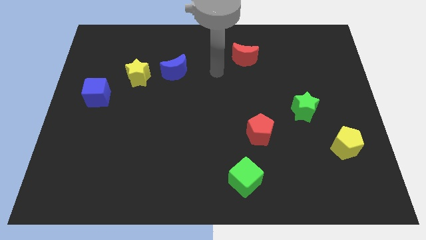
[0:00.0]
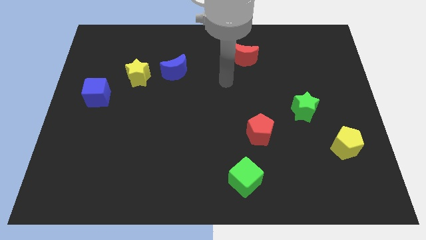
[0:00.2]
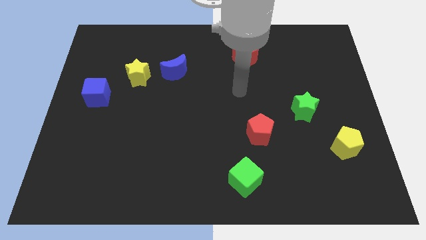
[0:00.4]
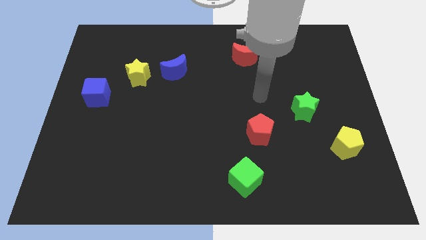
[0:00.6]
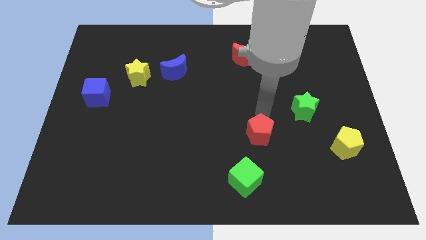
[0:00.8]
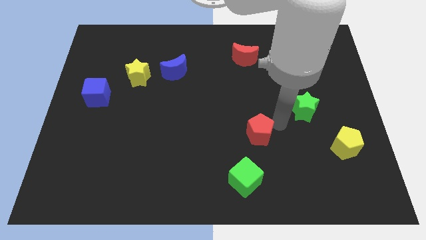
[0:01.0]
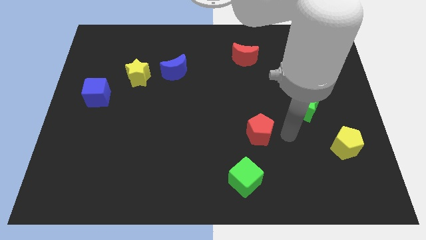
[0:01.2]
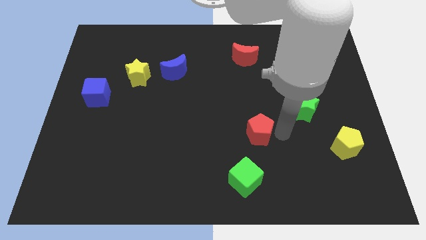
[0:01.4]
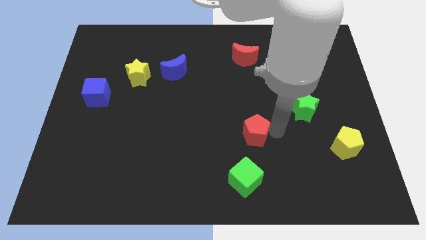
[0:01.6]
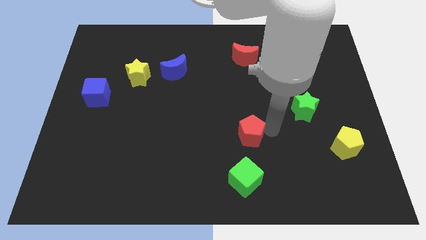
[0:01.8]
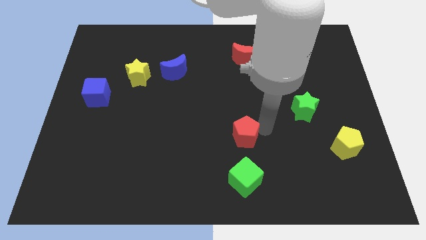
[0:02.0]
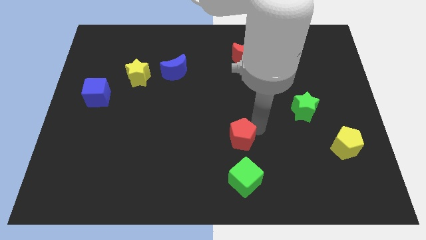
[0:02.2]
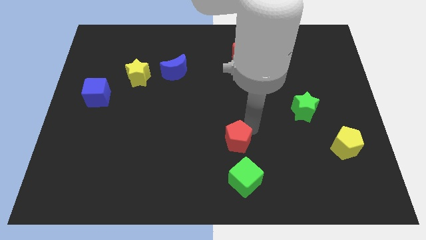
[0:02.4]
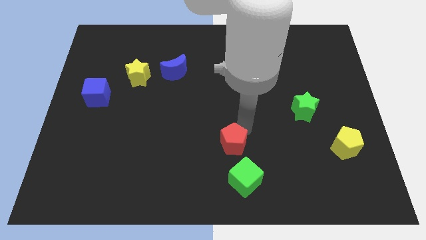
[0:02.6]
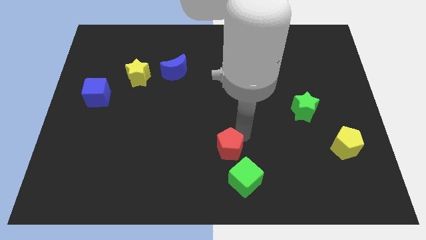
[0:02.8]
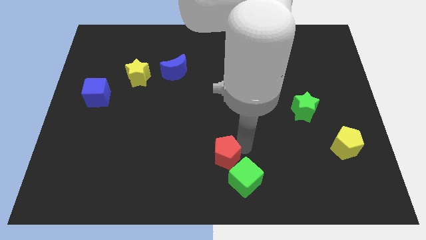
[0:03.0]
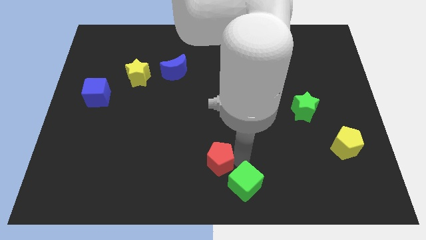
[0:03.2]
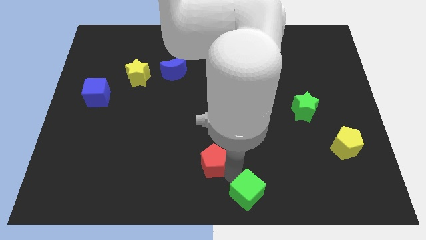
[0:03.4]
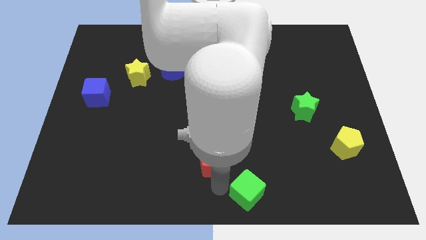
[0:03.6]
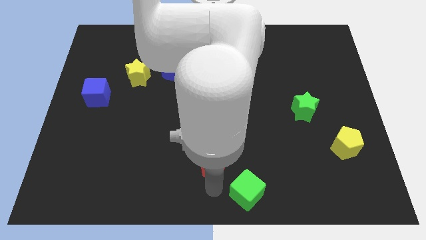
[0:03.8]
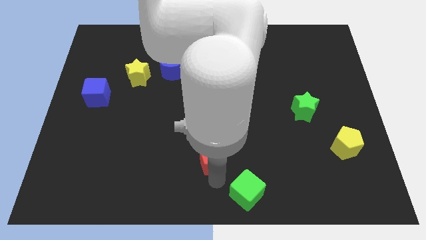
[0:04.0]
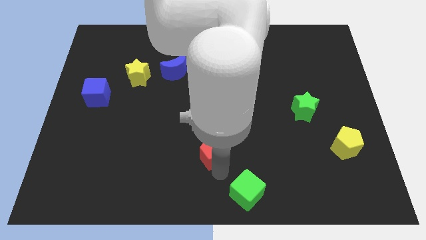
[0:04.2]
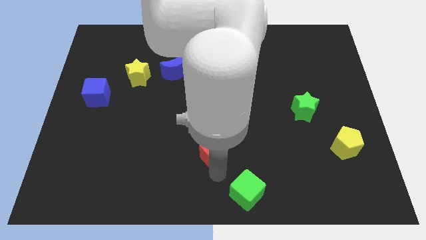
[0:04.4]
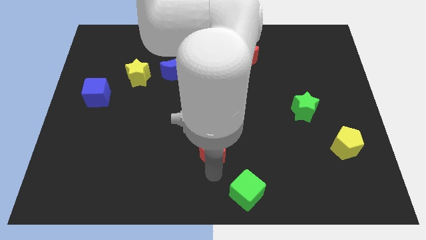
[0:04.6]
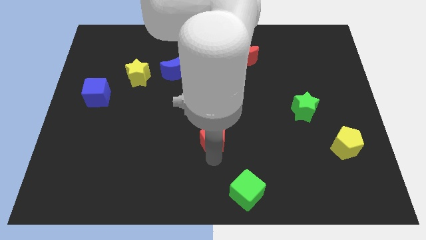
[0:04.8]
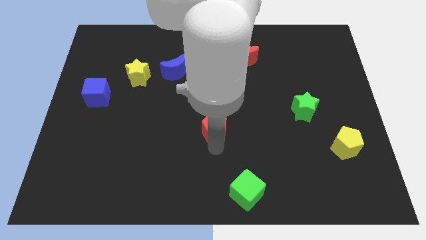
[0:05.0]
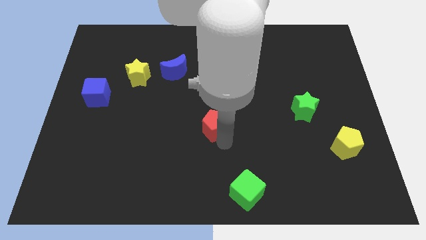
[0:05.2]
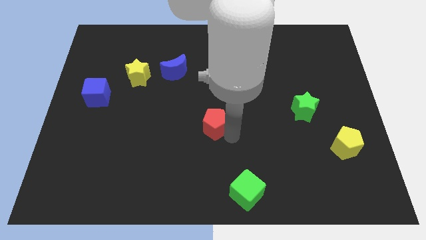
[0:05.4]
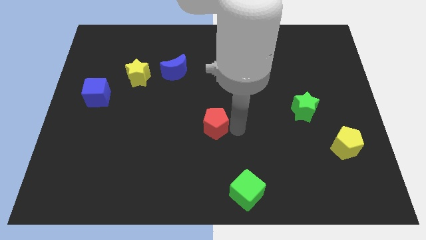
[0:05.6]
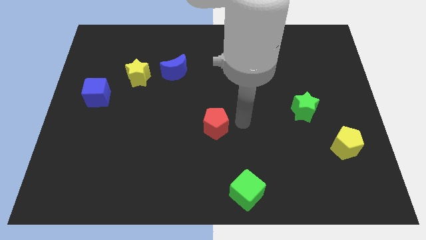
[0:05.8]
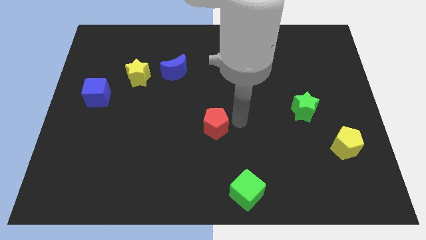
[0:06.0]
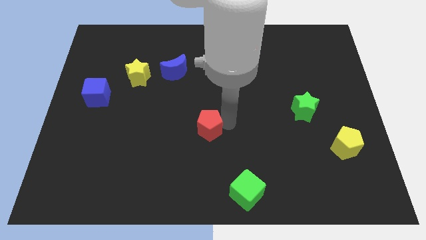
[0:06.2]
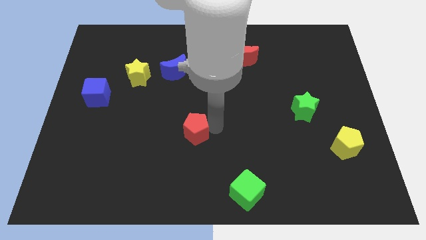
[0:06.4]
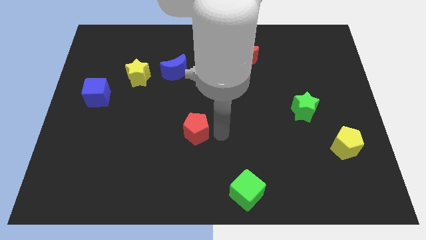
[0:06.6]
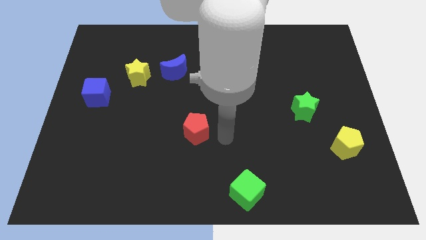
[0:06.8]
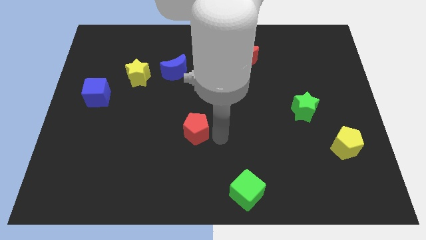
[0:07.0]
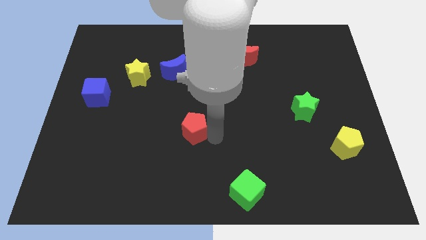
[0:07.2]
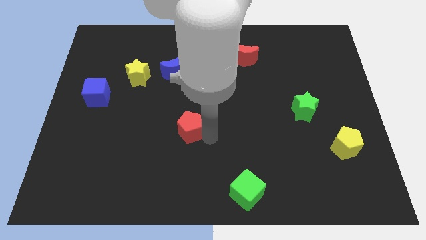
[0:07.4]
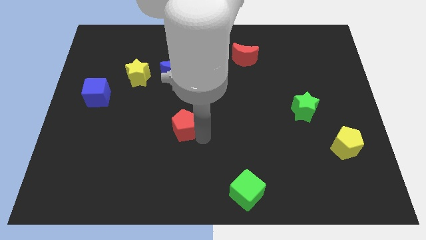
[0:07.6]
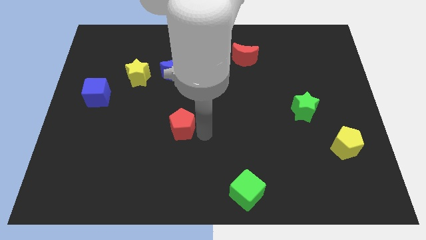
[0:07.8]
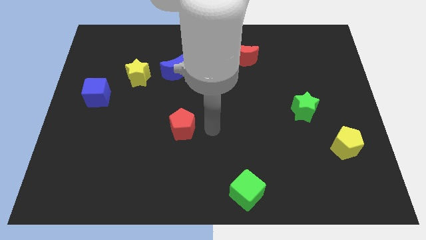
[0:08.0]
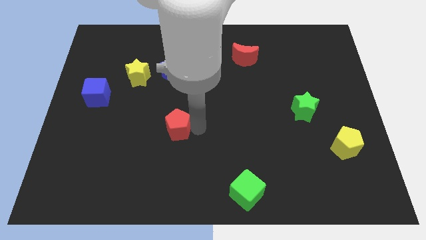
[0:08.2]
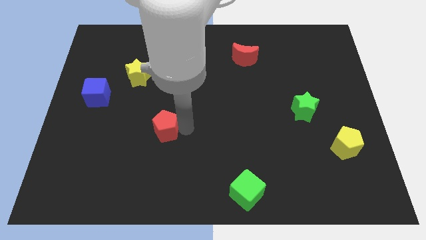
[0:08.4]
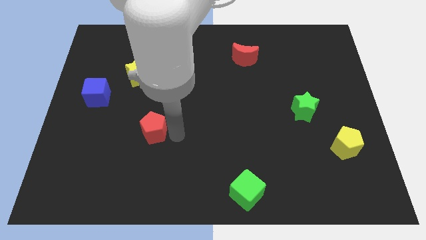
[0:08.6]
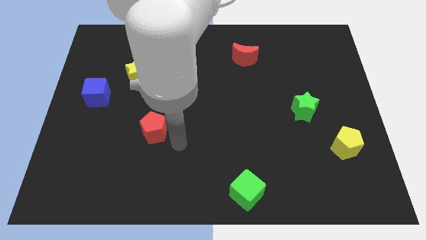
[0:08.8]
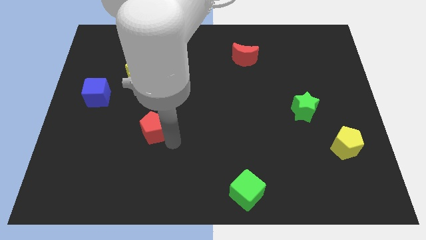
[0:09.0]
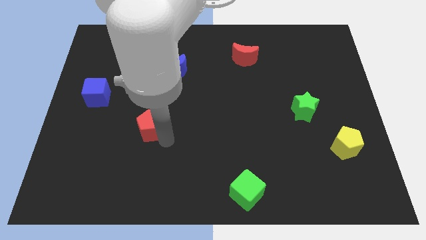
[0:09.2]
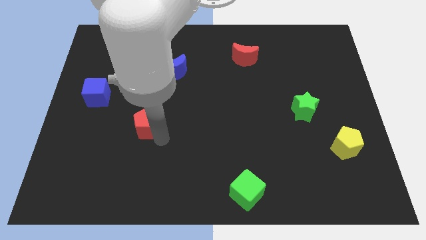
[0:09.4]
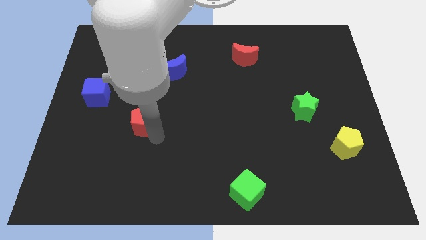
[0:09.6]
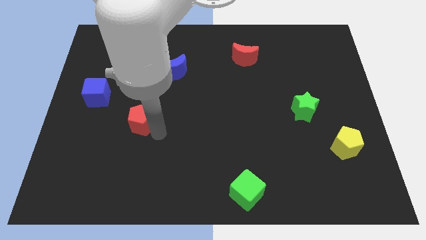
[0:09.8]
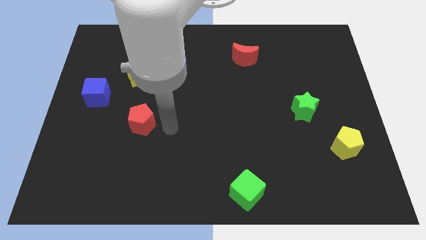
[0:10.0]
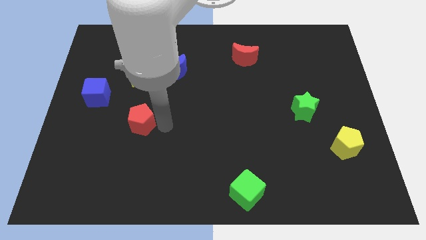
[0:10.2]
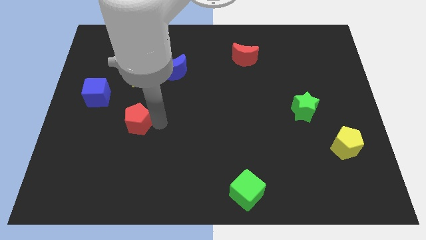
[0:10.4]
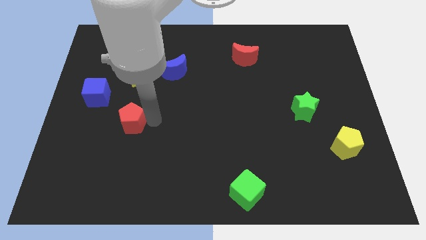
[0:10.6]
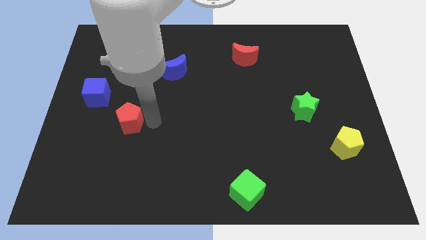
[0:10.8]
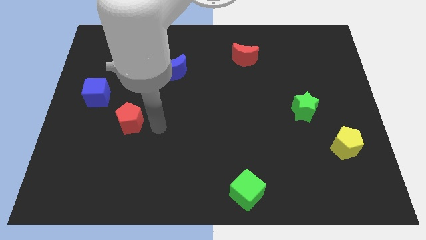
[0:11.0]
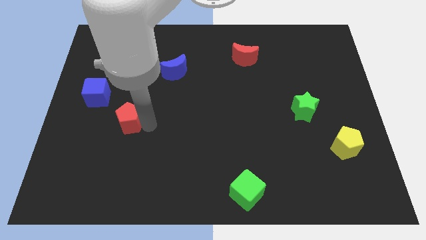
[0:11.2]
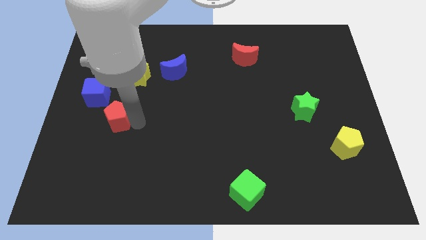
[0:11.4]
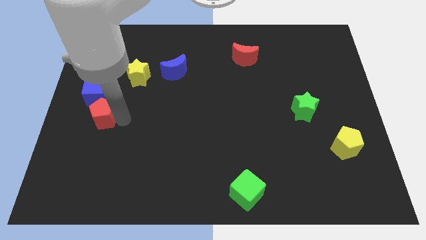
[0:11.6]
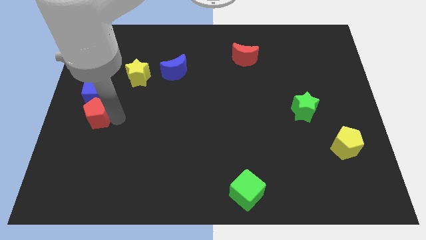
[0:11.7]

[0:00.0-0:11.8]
put the red pentagon to the center left
